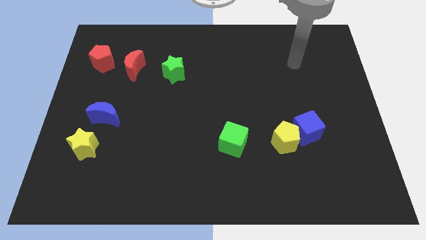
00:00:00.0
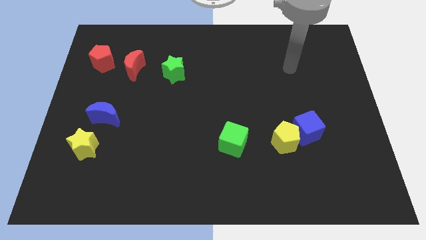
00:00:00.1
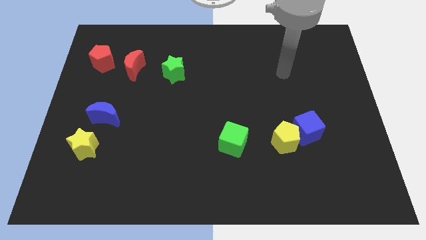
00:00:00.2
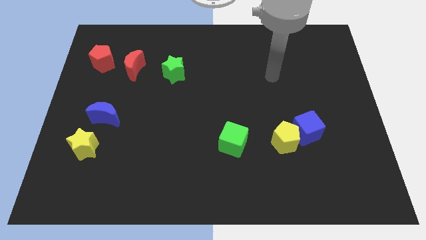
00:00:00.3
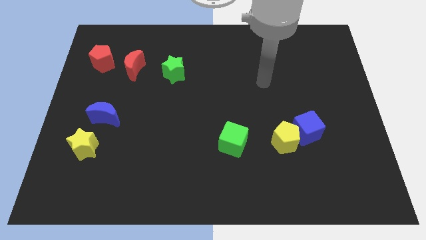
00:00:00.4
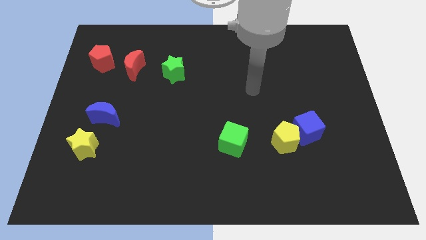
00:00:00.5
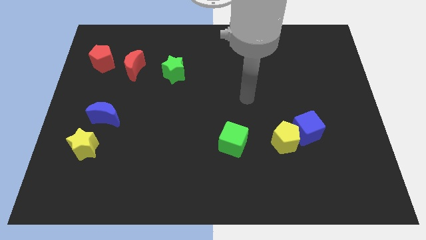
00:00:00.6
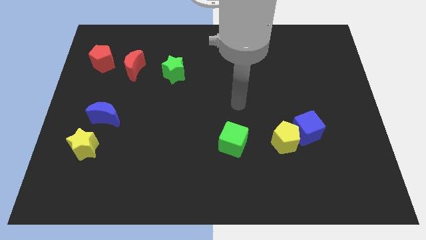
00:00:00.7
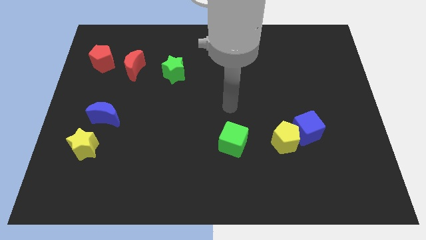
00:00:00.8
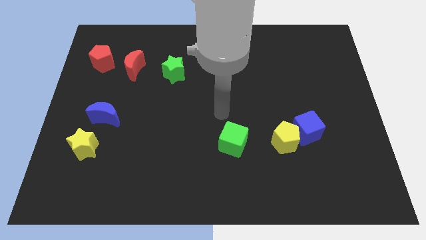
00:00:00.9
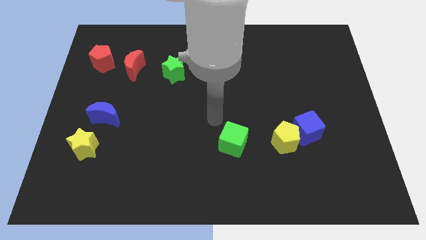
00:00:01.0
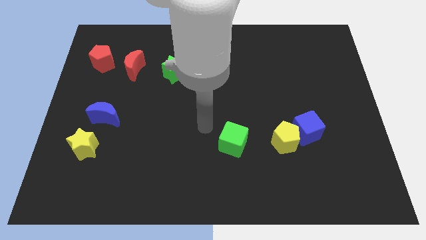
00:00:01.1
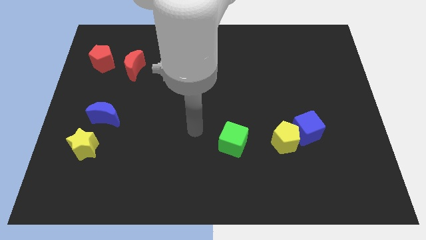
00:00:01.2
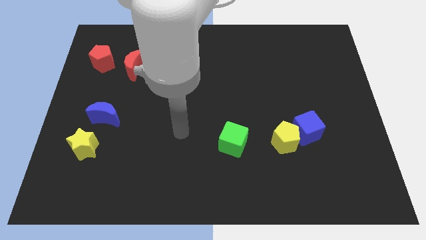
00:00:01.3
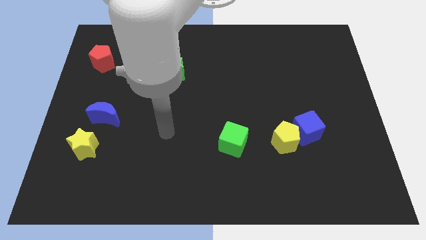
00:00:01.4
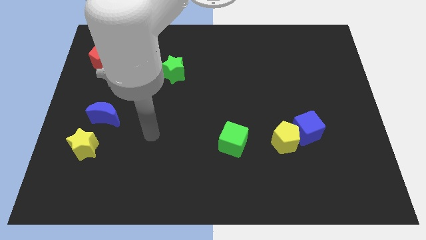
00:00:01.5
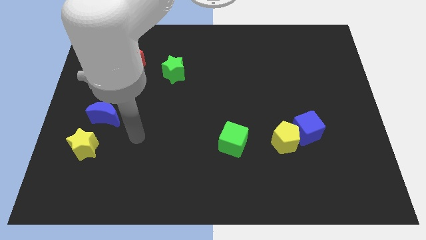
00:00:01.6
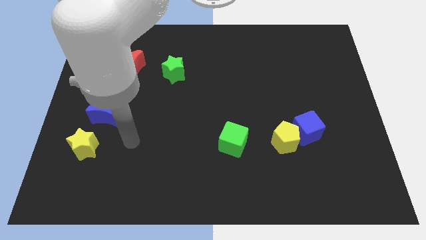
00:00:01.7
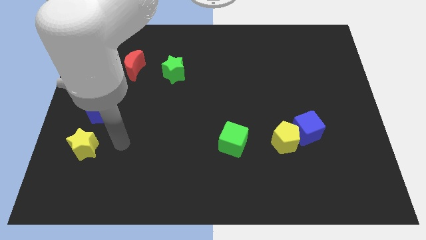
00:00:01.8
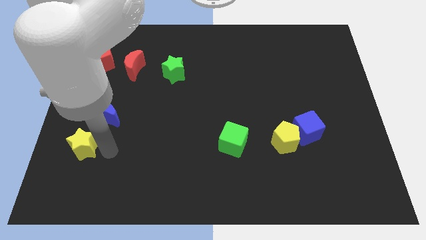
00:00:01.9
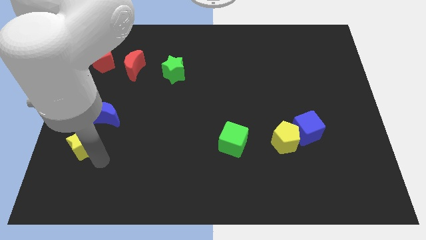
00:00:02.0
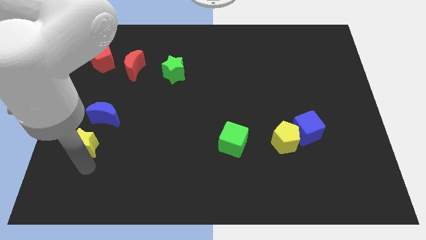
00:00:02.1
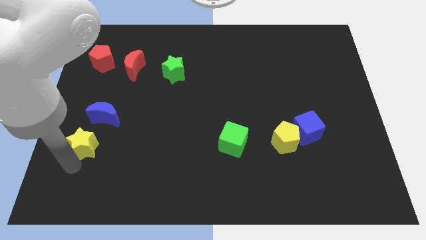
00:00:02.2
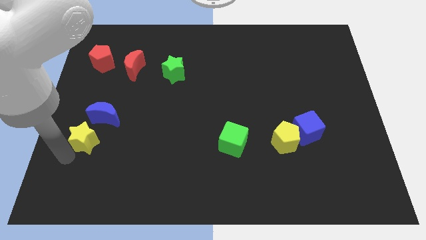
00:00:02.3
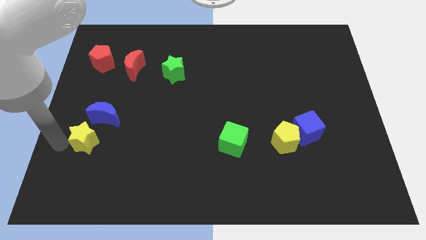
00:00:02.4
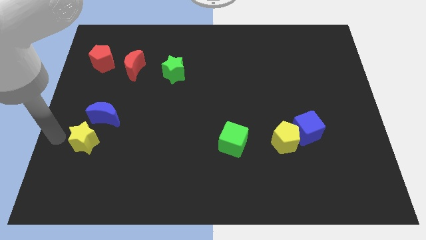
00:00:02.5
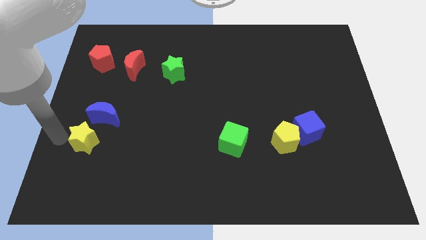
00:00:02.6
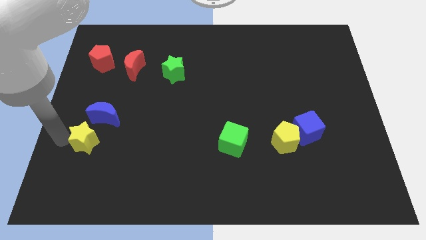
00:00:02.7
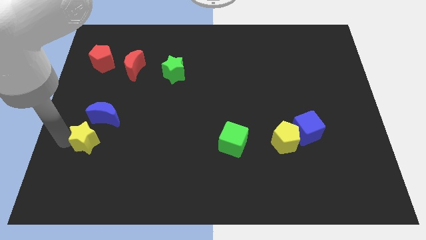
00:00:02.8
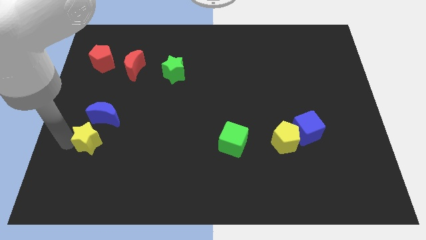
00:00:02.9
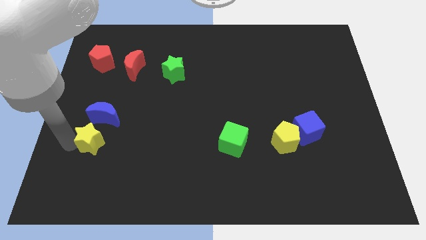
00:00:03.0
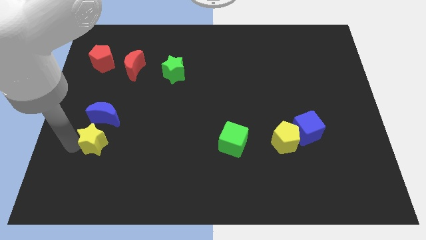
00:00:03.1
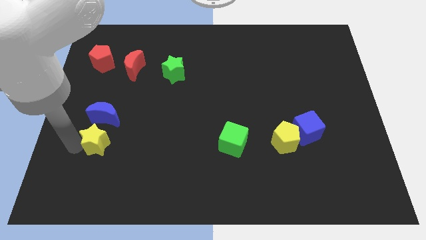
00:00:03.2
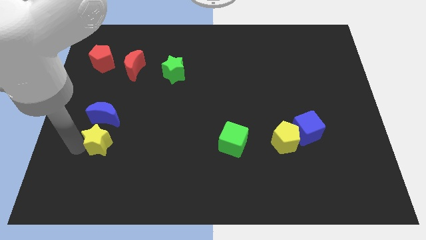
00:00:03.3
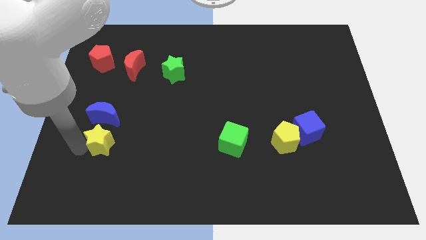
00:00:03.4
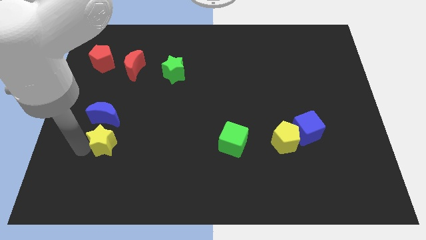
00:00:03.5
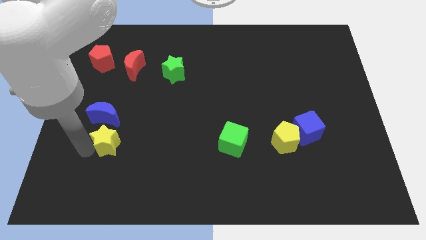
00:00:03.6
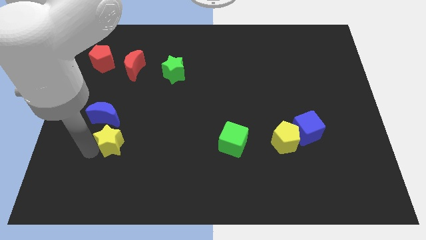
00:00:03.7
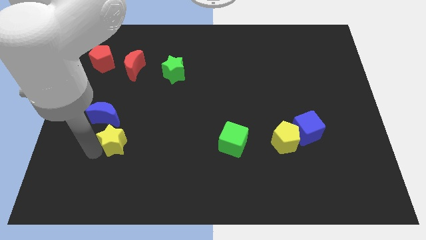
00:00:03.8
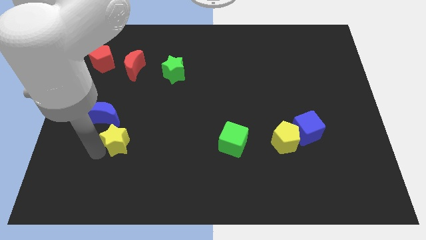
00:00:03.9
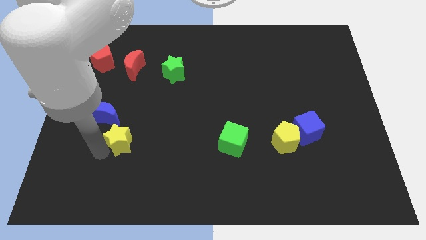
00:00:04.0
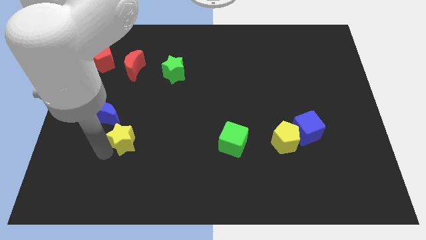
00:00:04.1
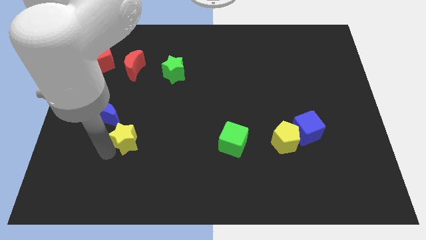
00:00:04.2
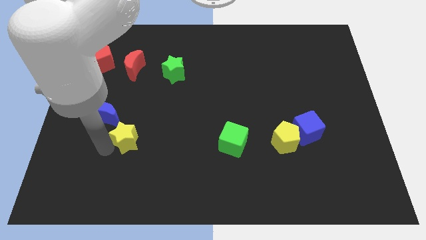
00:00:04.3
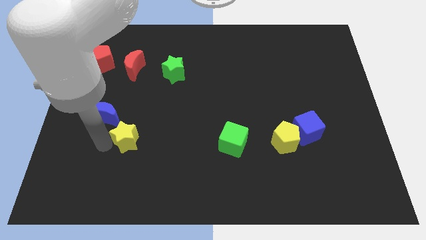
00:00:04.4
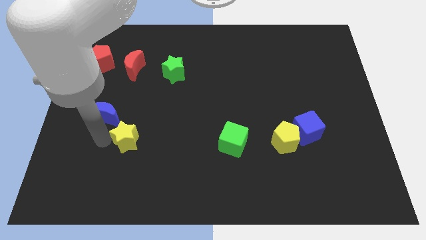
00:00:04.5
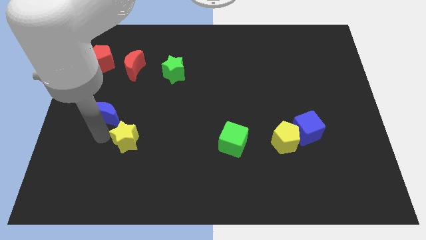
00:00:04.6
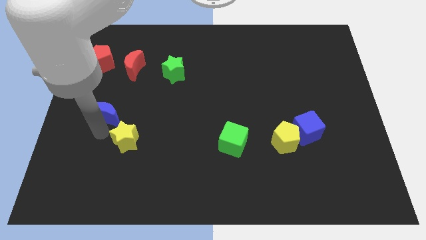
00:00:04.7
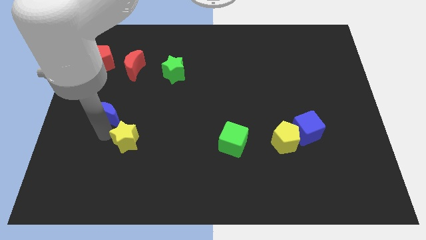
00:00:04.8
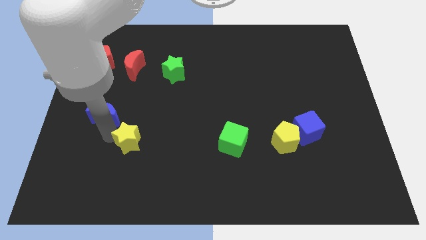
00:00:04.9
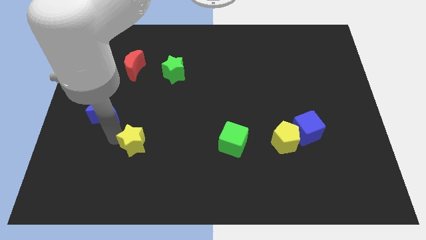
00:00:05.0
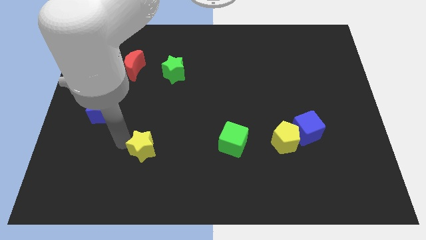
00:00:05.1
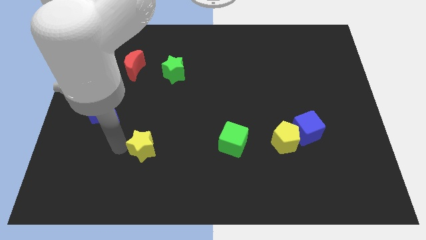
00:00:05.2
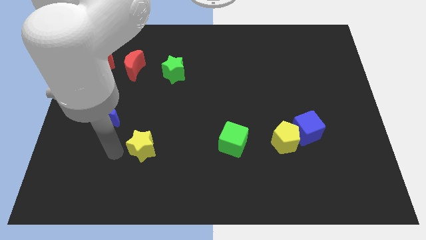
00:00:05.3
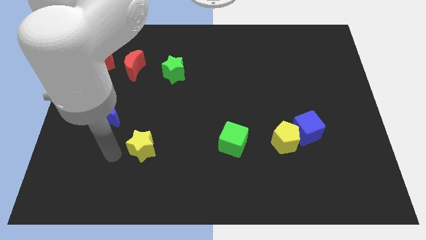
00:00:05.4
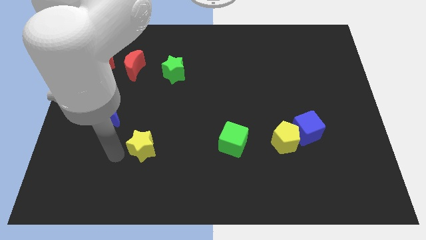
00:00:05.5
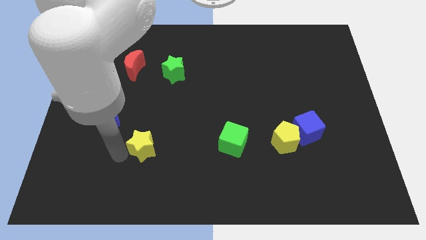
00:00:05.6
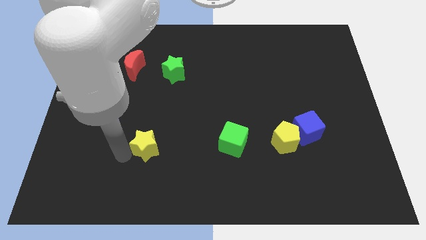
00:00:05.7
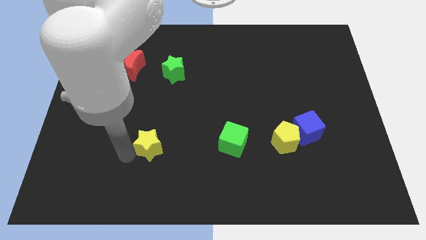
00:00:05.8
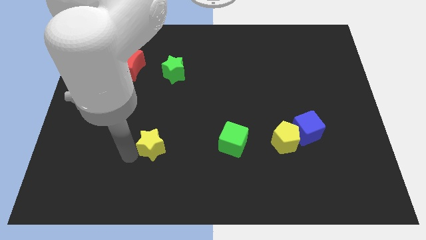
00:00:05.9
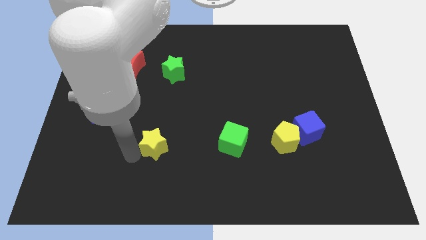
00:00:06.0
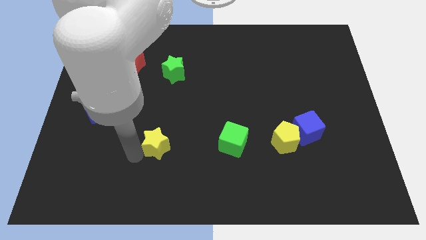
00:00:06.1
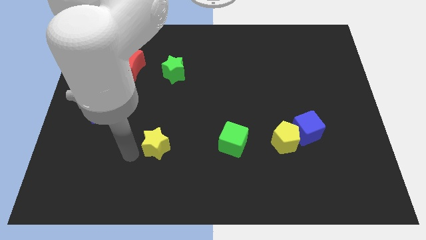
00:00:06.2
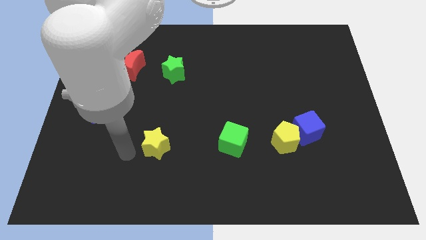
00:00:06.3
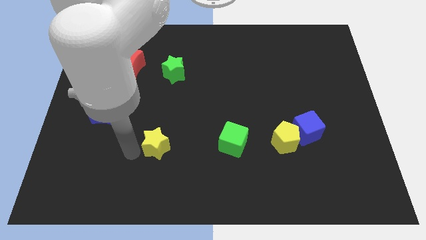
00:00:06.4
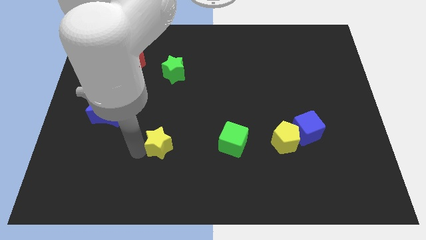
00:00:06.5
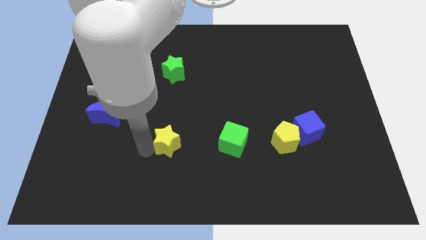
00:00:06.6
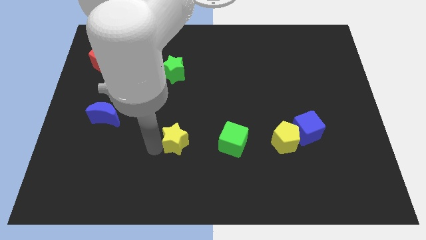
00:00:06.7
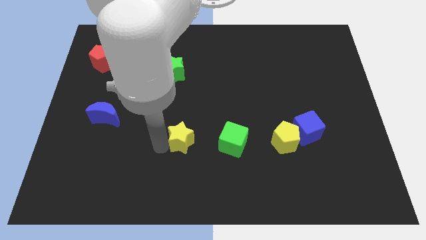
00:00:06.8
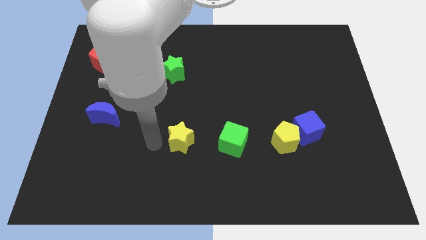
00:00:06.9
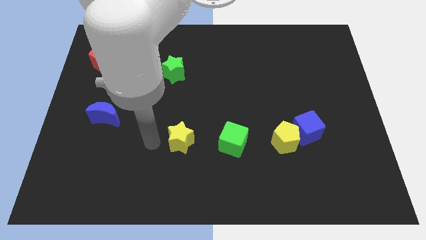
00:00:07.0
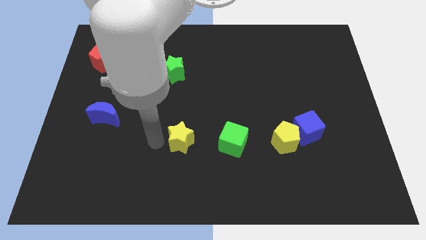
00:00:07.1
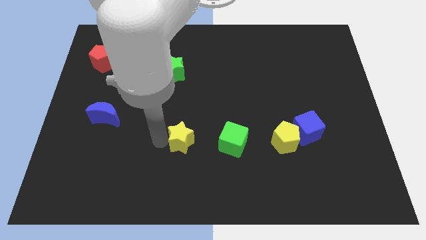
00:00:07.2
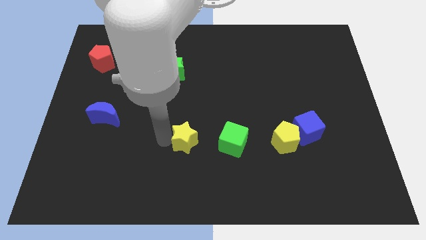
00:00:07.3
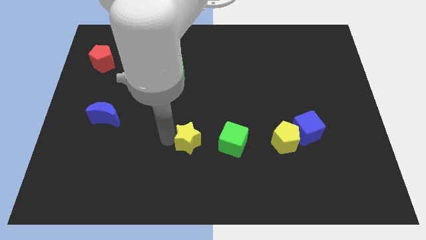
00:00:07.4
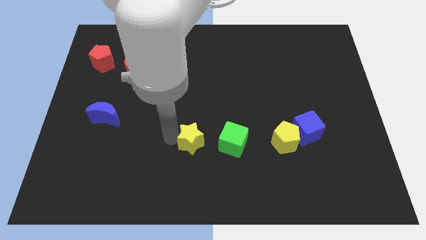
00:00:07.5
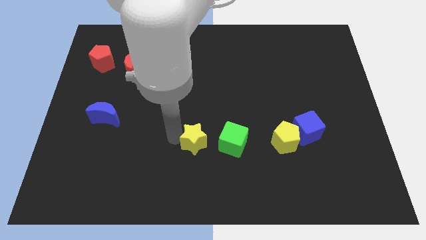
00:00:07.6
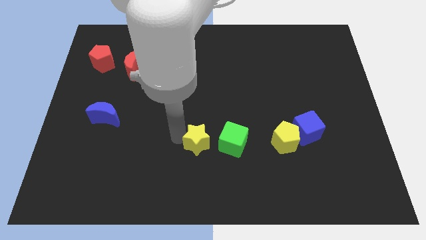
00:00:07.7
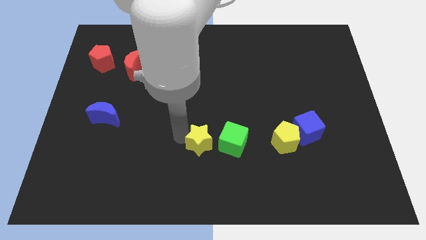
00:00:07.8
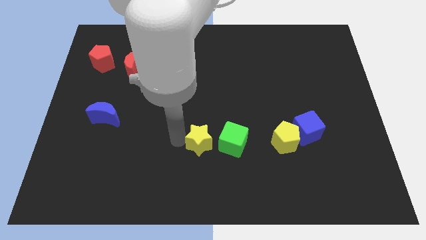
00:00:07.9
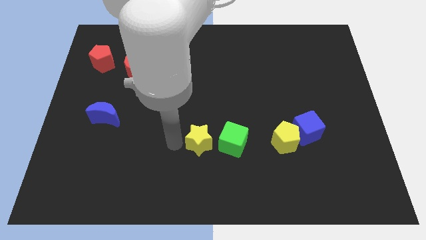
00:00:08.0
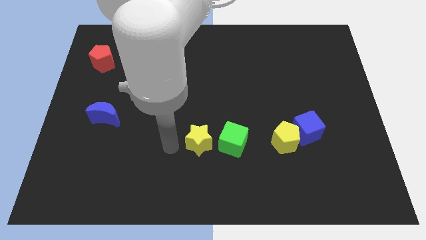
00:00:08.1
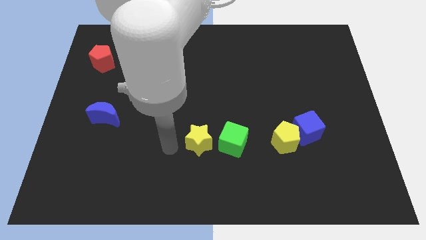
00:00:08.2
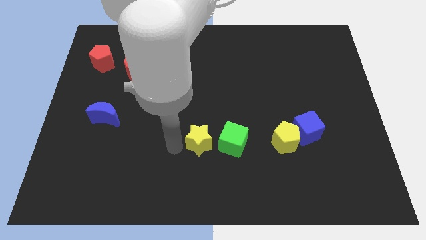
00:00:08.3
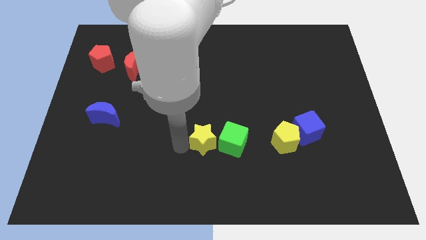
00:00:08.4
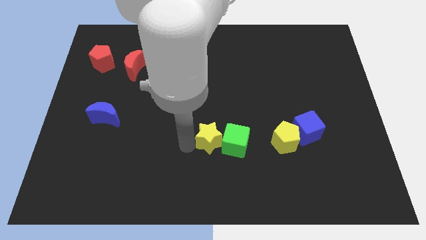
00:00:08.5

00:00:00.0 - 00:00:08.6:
move the yellow star to the green cube
